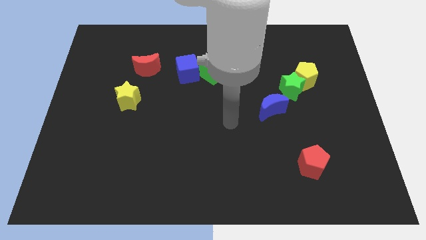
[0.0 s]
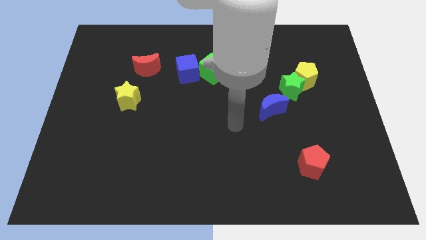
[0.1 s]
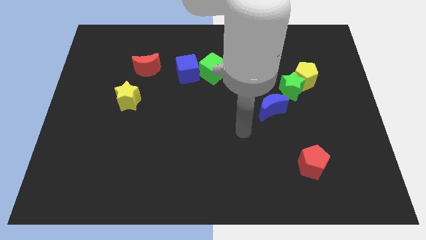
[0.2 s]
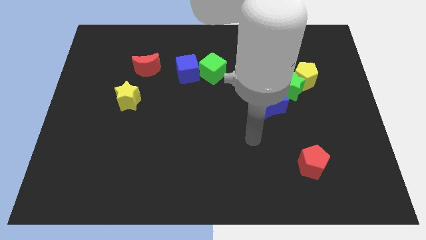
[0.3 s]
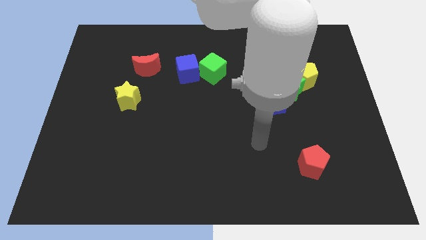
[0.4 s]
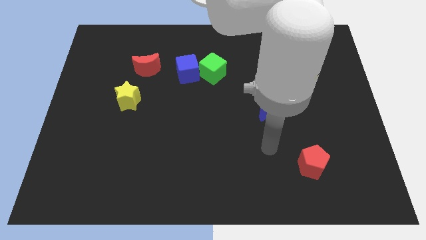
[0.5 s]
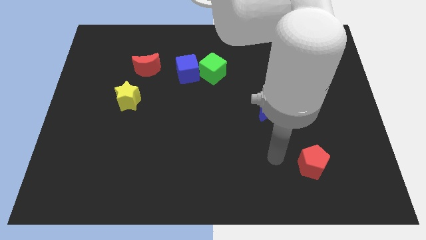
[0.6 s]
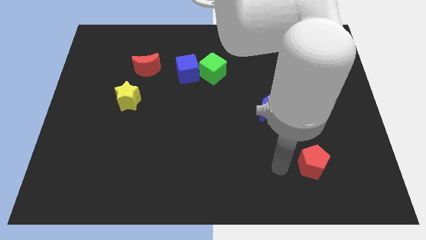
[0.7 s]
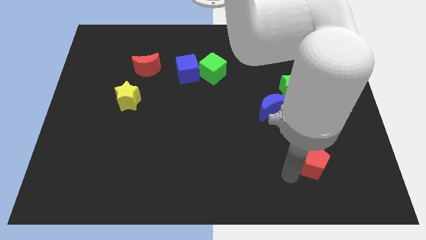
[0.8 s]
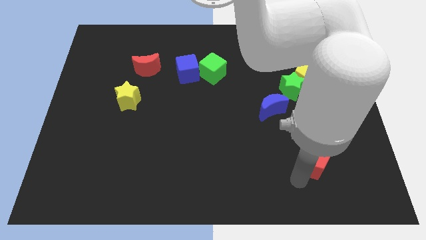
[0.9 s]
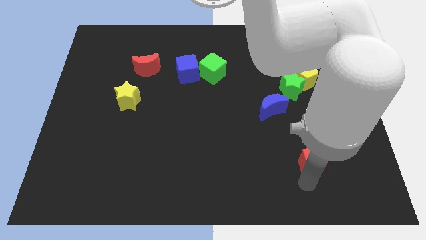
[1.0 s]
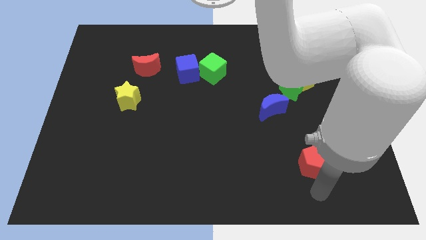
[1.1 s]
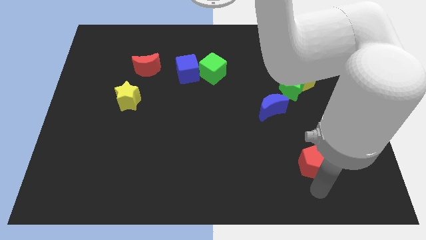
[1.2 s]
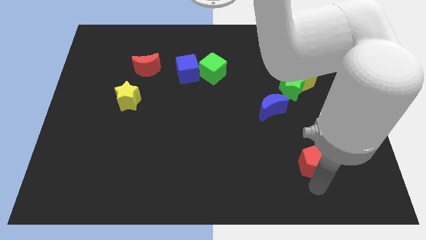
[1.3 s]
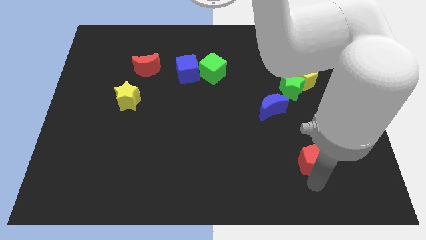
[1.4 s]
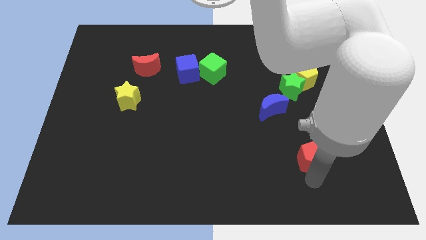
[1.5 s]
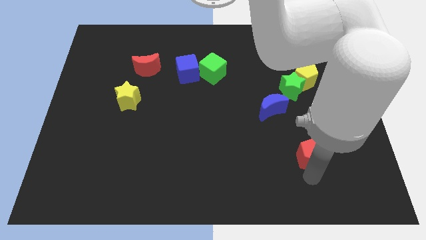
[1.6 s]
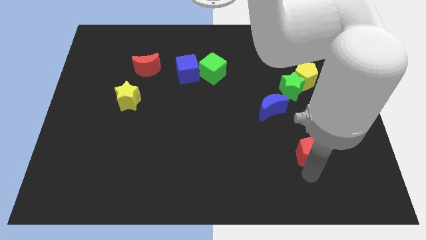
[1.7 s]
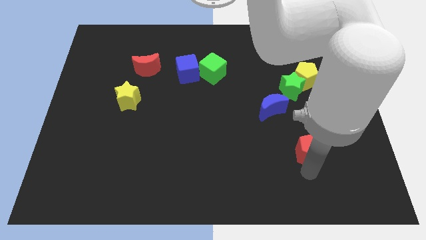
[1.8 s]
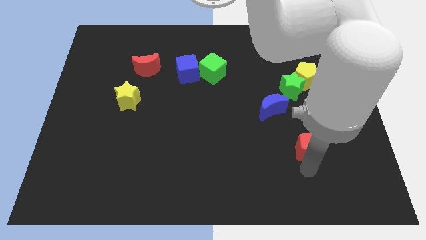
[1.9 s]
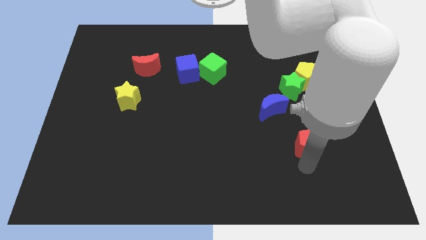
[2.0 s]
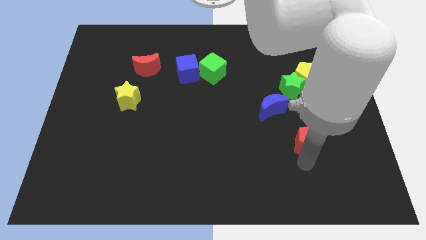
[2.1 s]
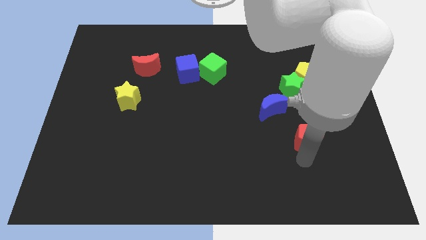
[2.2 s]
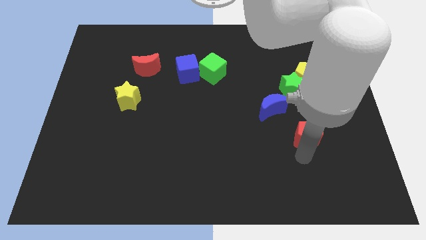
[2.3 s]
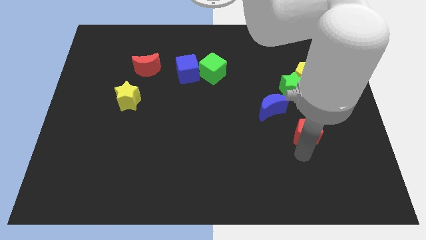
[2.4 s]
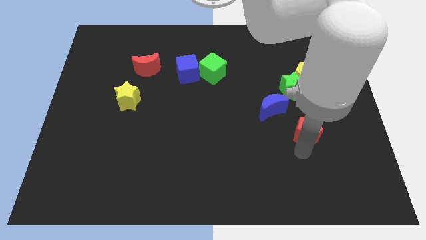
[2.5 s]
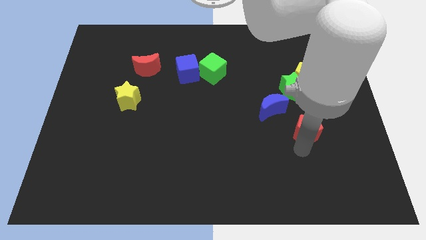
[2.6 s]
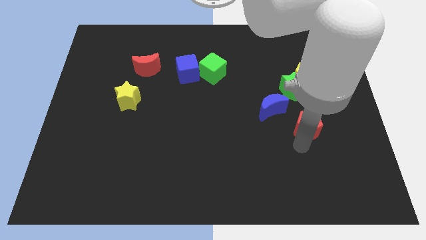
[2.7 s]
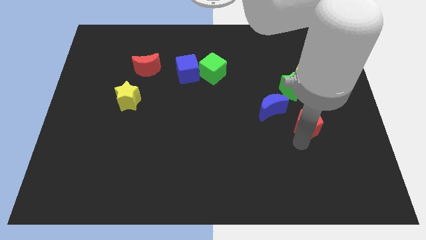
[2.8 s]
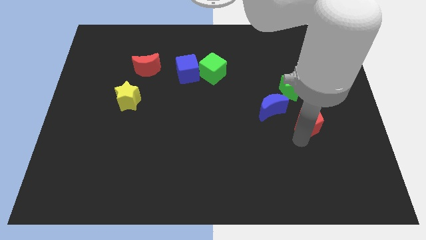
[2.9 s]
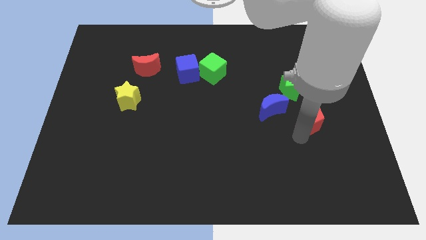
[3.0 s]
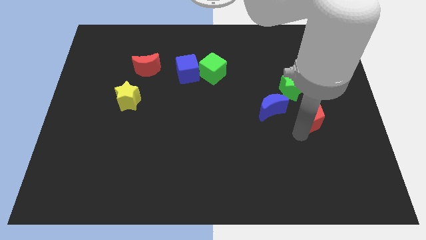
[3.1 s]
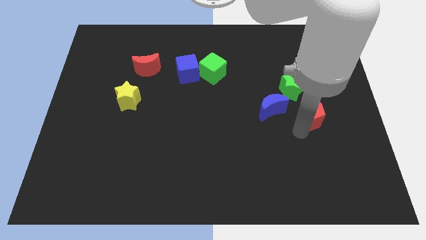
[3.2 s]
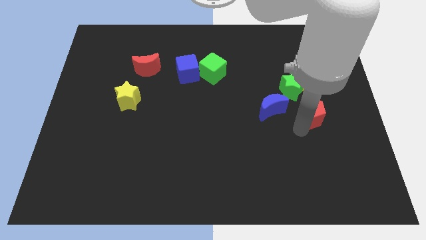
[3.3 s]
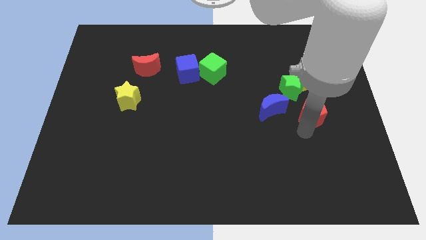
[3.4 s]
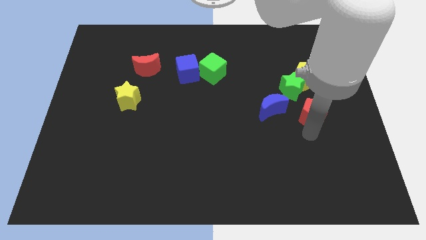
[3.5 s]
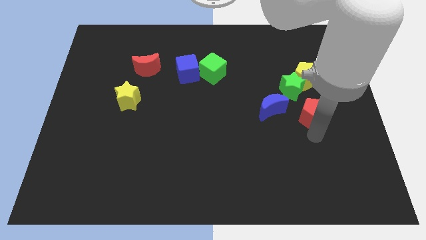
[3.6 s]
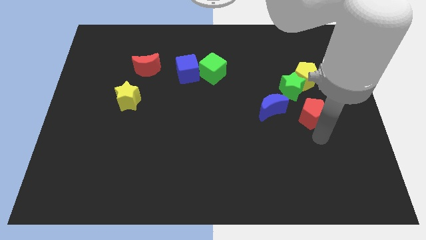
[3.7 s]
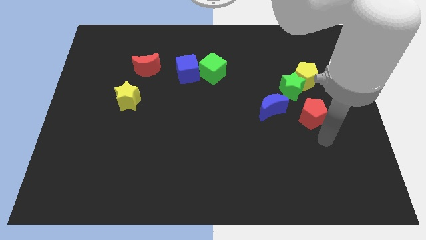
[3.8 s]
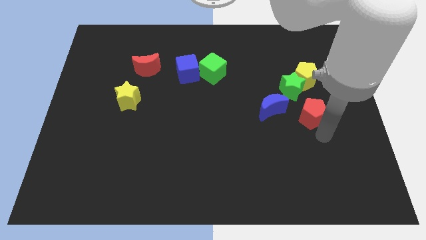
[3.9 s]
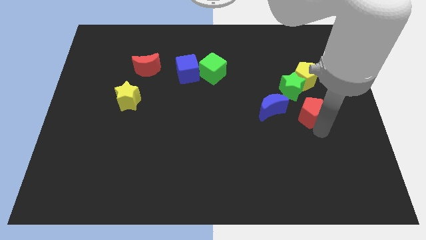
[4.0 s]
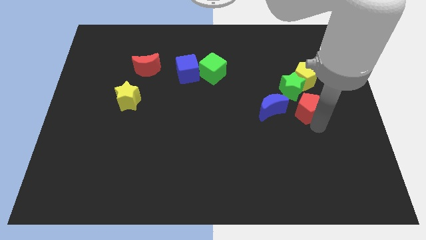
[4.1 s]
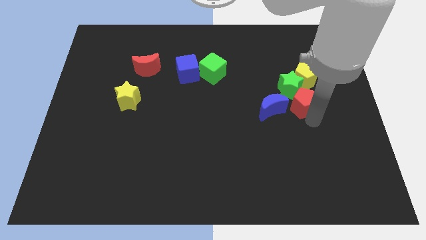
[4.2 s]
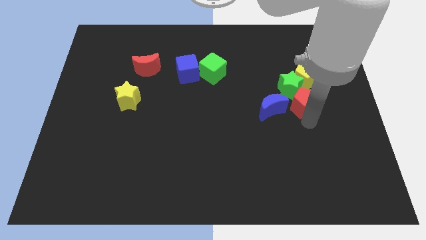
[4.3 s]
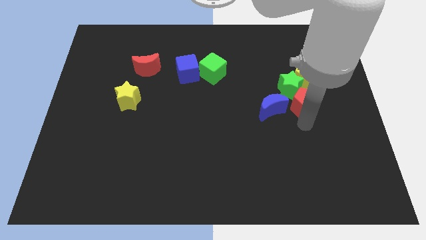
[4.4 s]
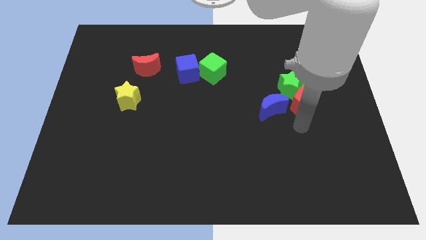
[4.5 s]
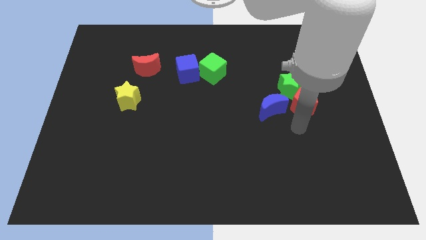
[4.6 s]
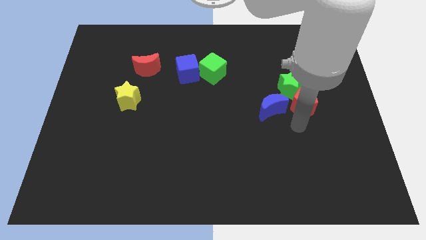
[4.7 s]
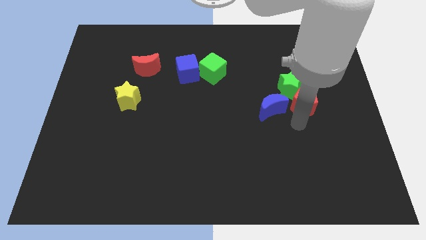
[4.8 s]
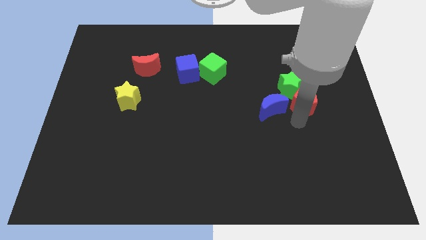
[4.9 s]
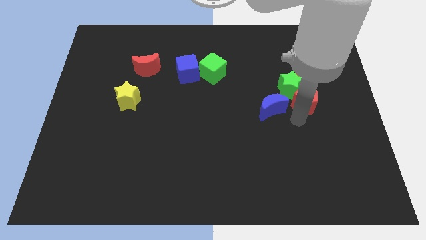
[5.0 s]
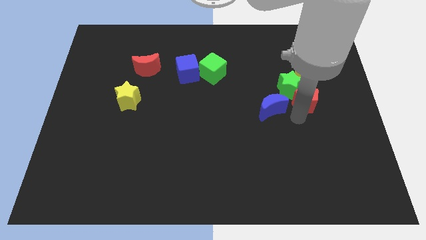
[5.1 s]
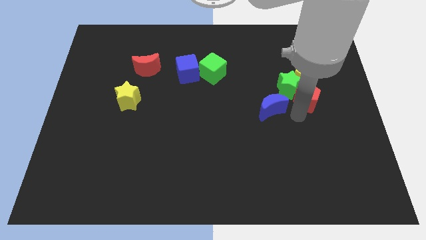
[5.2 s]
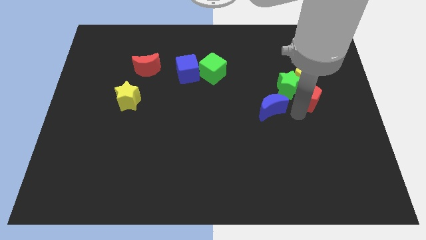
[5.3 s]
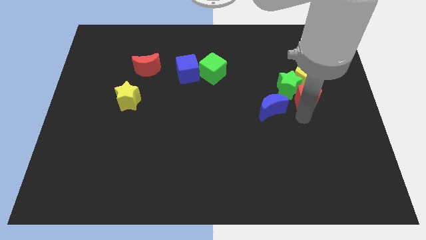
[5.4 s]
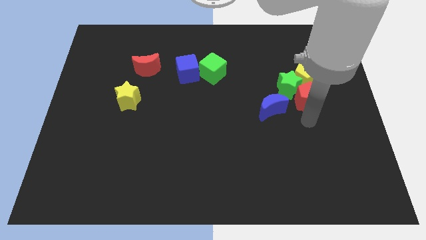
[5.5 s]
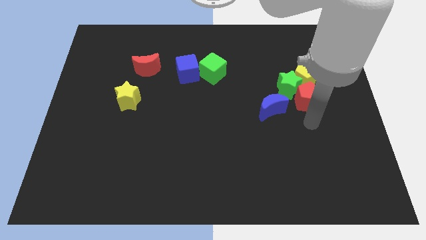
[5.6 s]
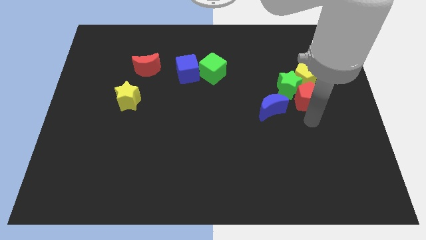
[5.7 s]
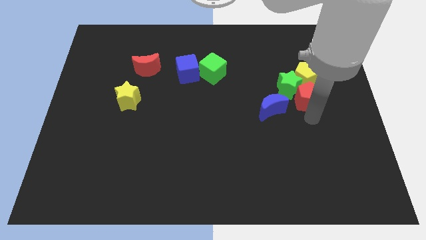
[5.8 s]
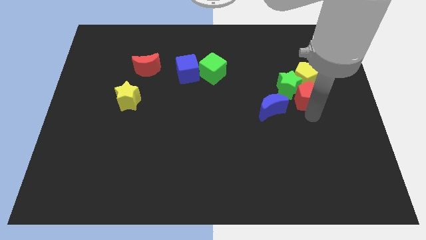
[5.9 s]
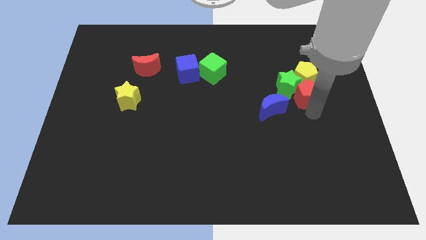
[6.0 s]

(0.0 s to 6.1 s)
put the red pentagon next to the yellow pentagon

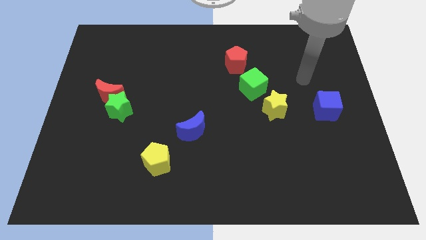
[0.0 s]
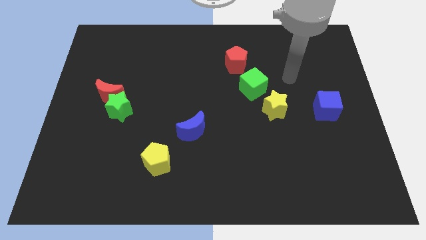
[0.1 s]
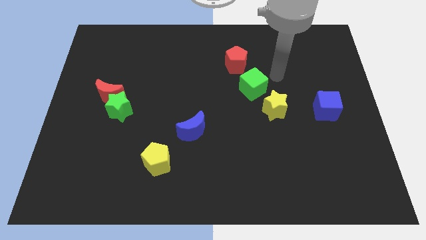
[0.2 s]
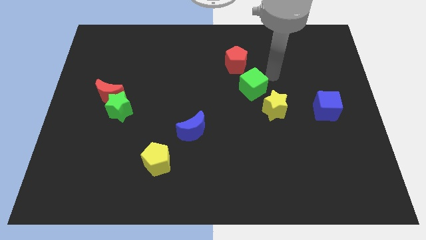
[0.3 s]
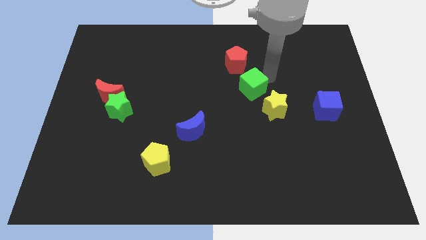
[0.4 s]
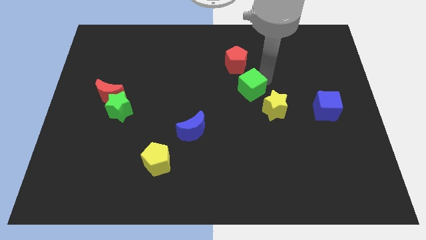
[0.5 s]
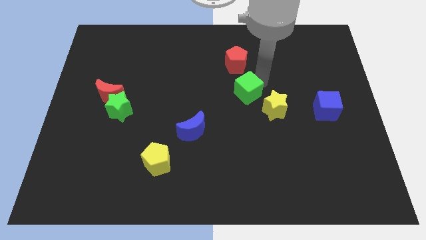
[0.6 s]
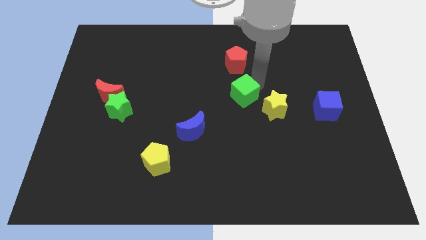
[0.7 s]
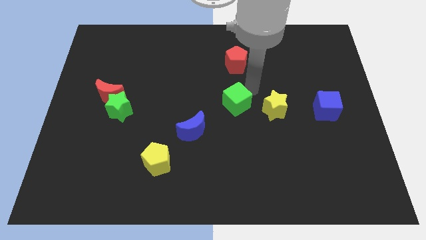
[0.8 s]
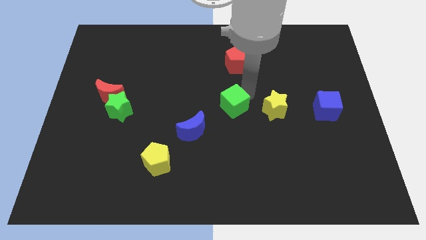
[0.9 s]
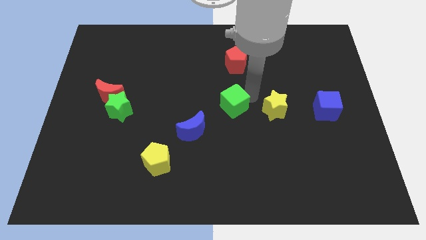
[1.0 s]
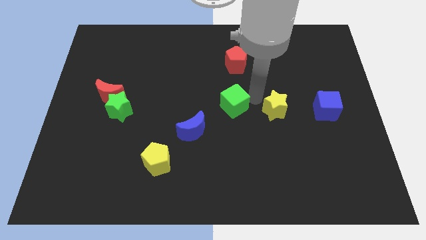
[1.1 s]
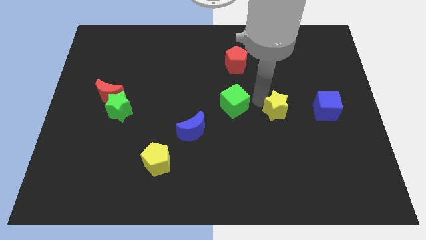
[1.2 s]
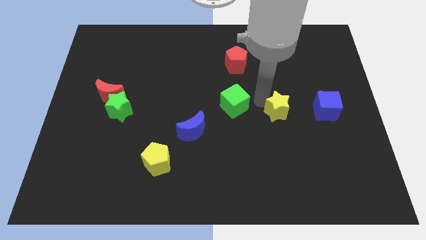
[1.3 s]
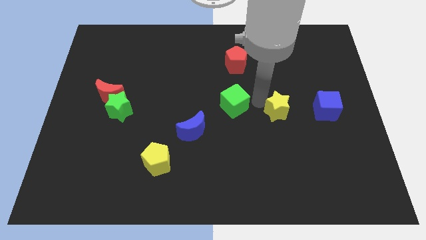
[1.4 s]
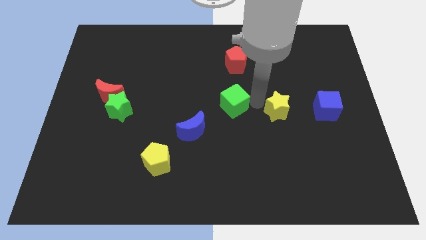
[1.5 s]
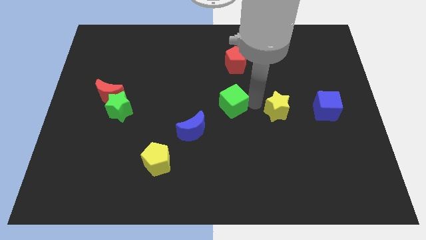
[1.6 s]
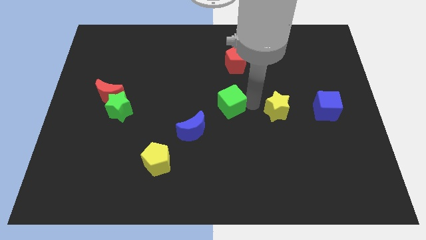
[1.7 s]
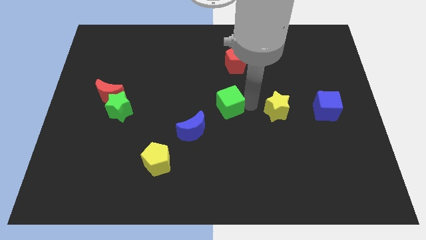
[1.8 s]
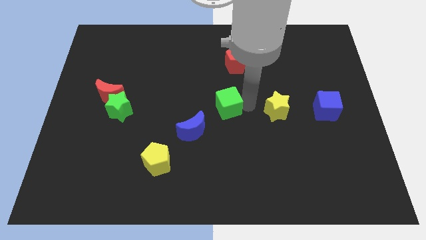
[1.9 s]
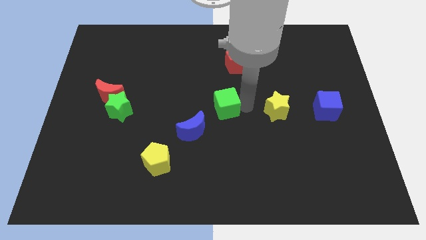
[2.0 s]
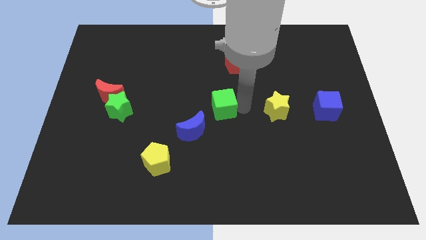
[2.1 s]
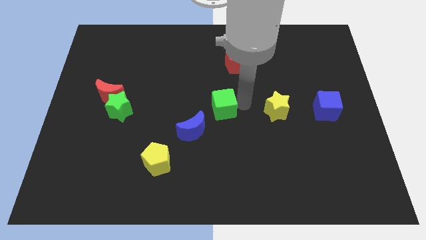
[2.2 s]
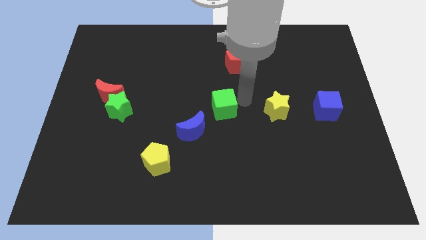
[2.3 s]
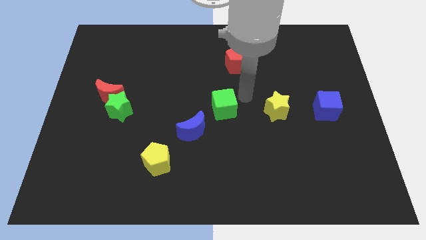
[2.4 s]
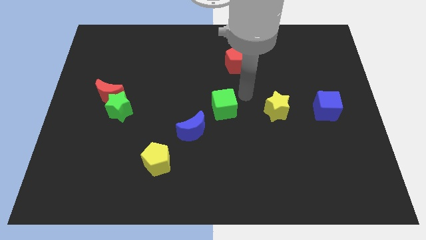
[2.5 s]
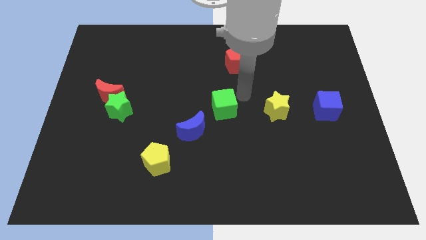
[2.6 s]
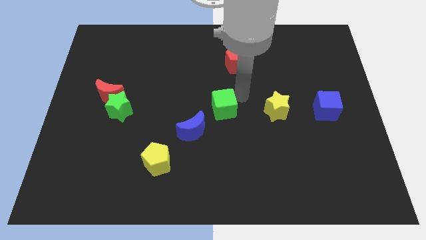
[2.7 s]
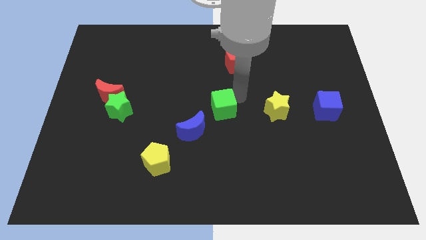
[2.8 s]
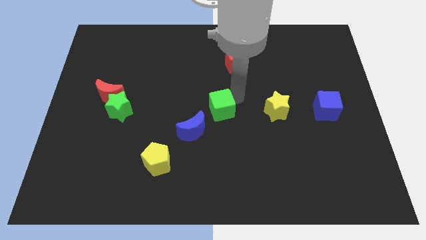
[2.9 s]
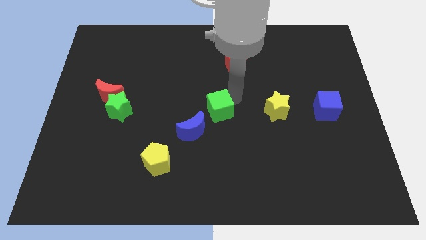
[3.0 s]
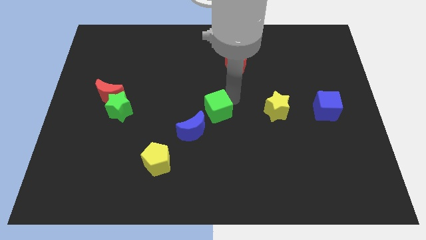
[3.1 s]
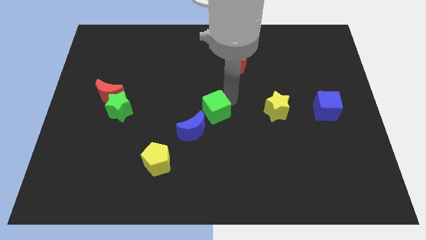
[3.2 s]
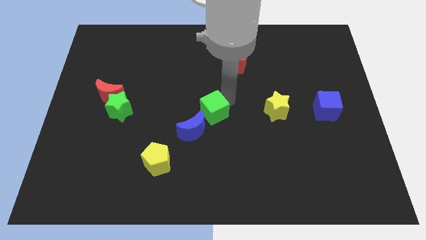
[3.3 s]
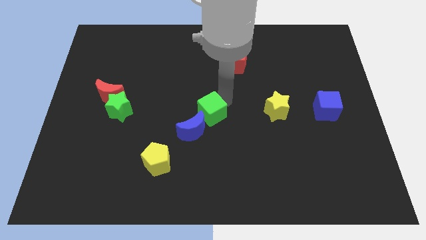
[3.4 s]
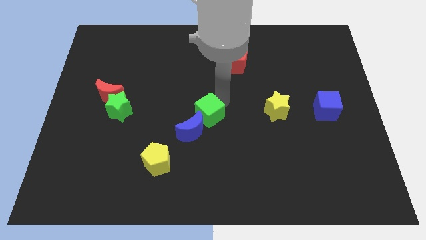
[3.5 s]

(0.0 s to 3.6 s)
push the green cube next to the blue moon
